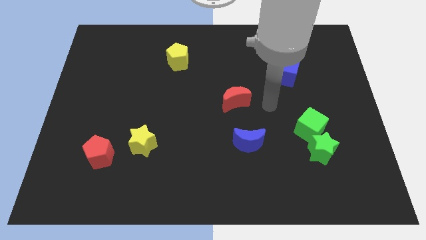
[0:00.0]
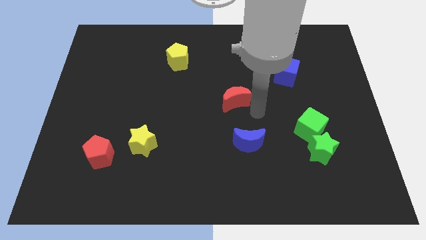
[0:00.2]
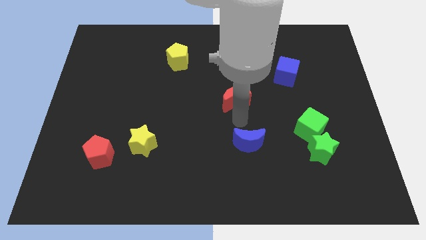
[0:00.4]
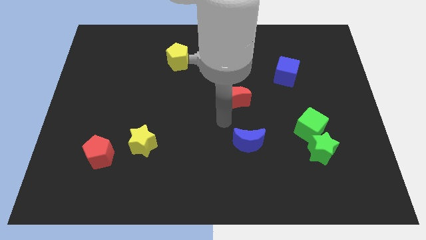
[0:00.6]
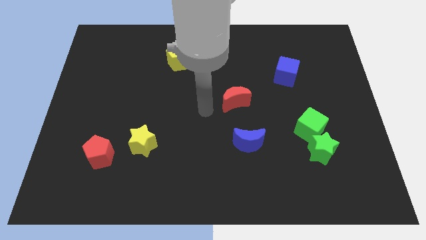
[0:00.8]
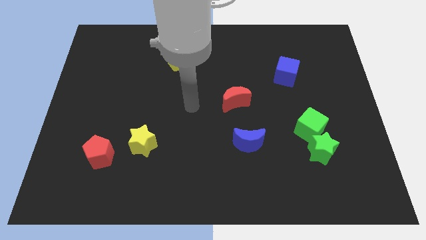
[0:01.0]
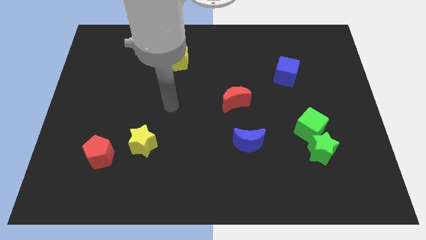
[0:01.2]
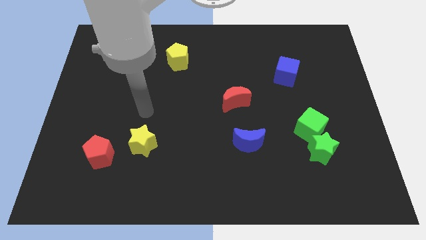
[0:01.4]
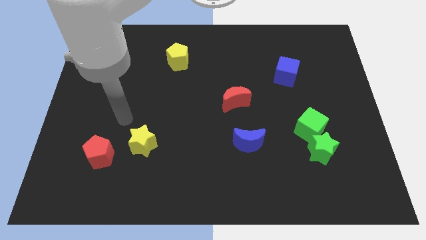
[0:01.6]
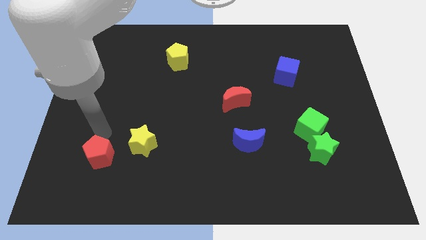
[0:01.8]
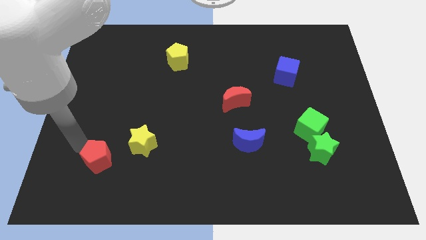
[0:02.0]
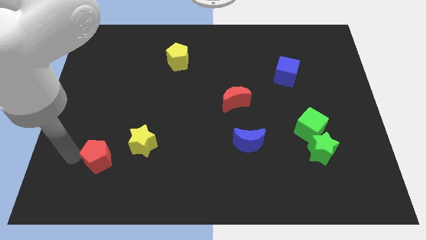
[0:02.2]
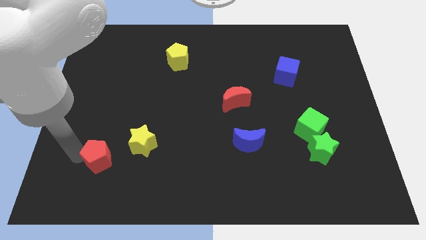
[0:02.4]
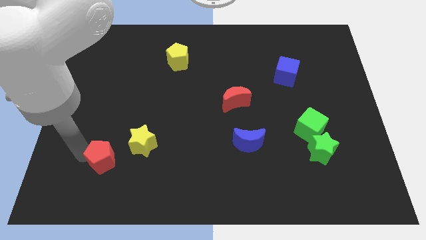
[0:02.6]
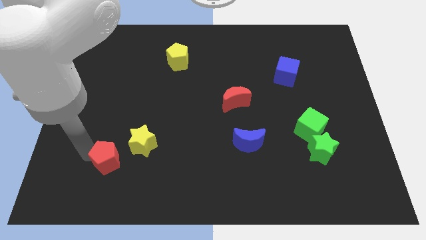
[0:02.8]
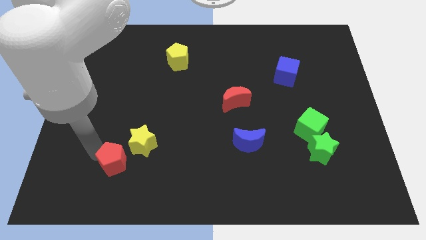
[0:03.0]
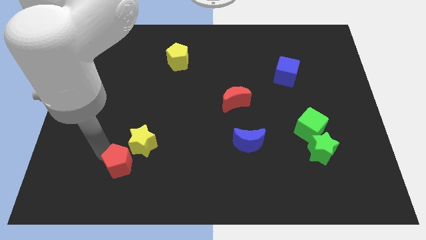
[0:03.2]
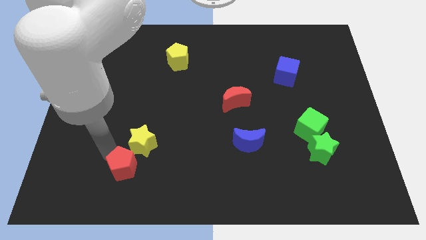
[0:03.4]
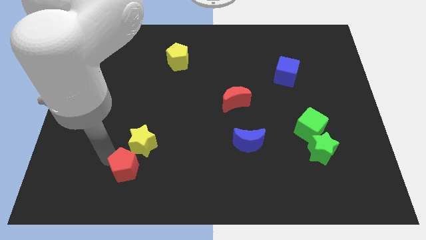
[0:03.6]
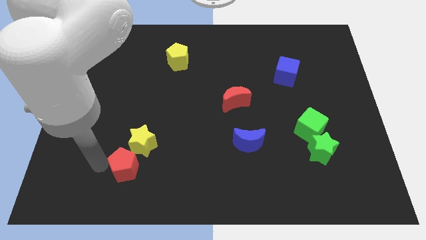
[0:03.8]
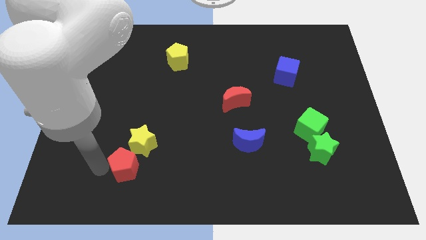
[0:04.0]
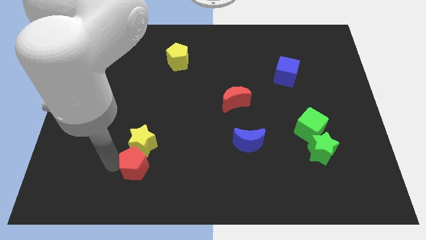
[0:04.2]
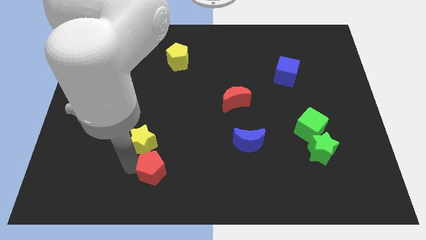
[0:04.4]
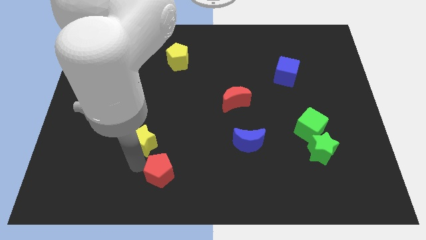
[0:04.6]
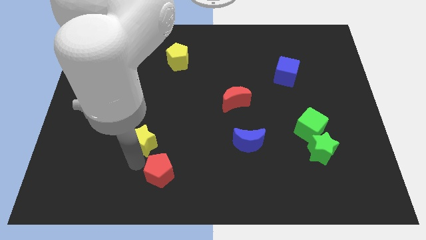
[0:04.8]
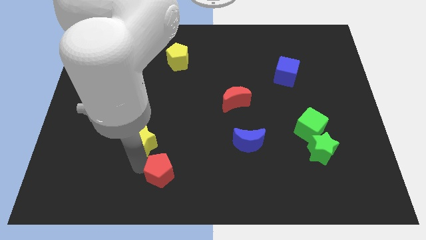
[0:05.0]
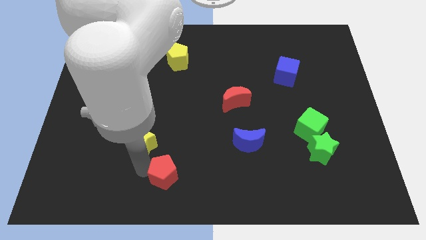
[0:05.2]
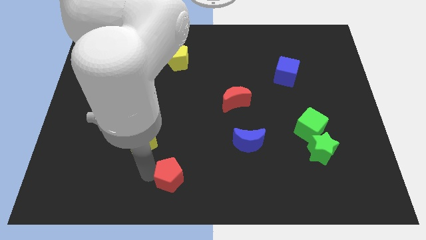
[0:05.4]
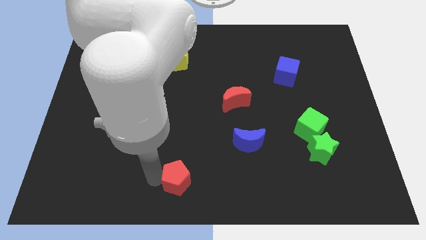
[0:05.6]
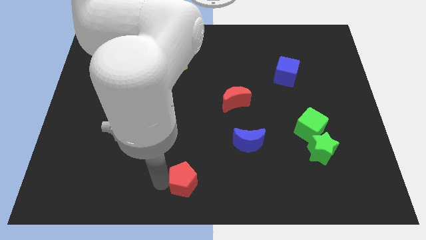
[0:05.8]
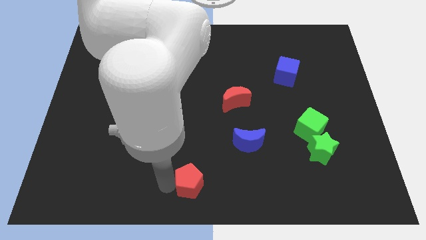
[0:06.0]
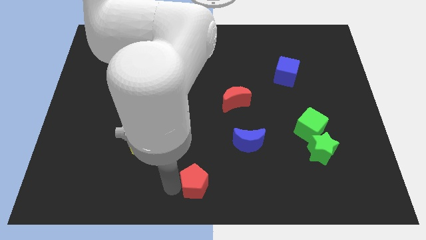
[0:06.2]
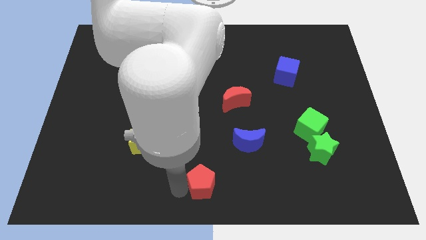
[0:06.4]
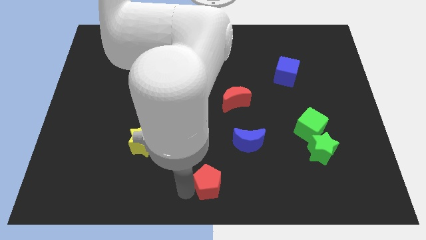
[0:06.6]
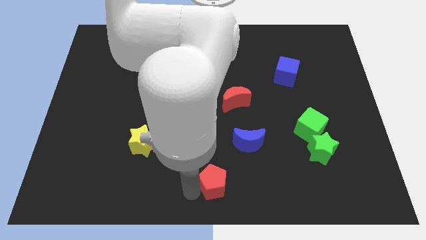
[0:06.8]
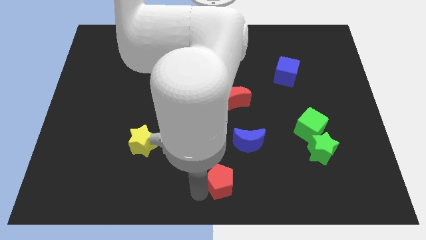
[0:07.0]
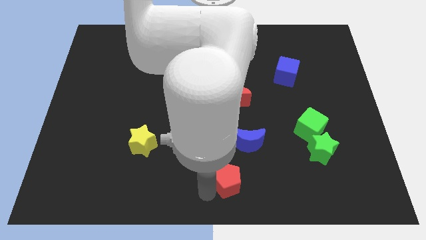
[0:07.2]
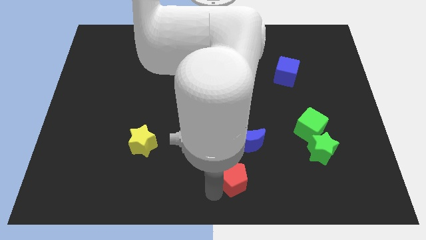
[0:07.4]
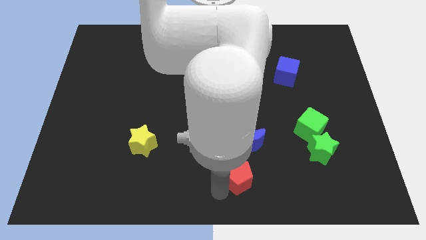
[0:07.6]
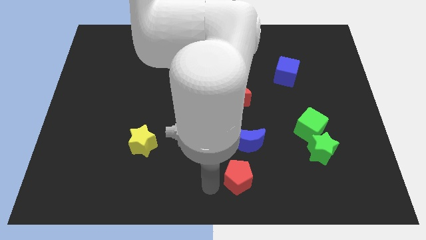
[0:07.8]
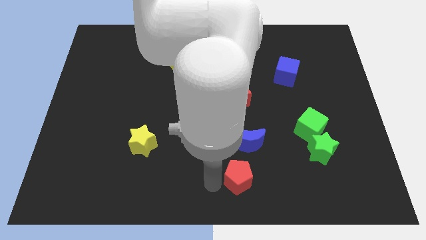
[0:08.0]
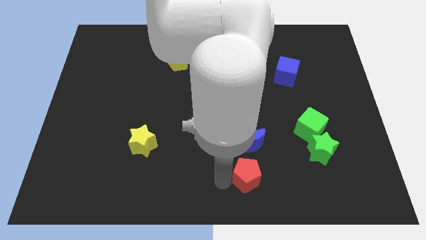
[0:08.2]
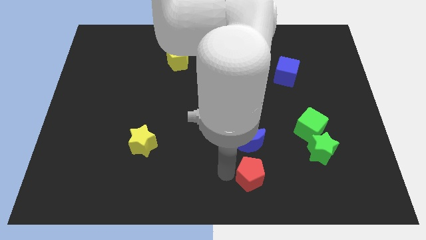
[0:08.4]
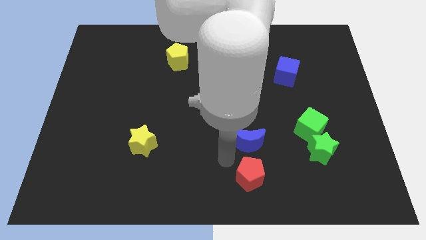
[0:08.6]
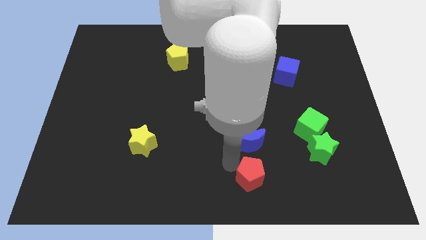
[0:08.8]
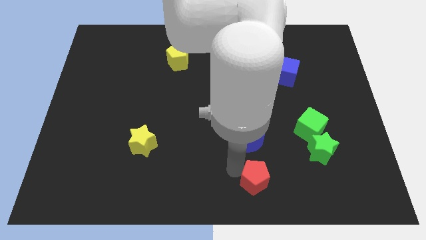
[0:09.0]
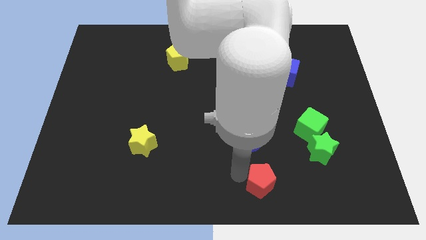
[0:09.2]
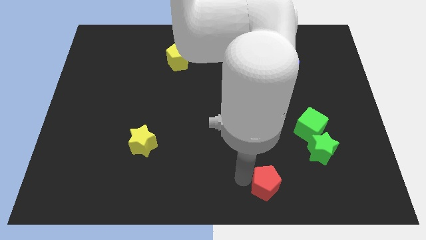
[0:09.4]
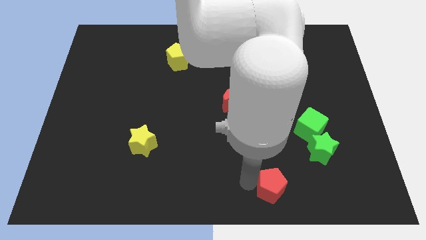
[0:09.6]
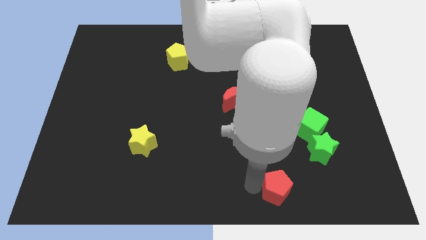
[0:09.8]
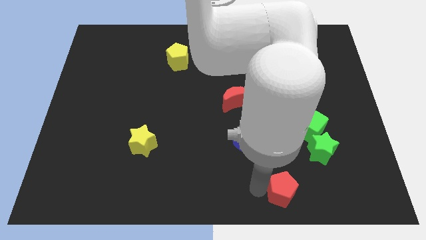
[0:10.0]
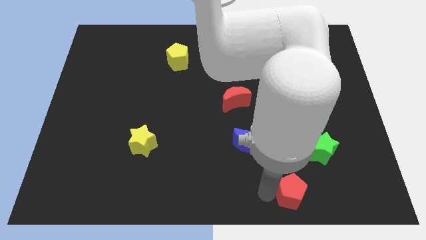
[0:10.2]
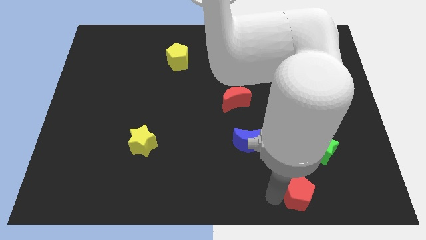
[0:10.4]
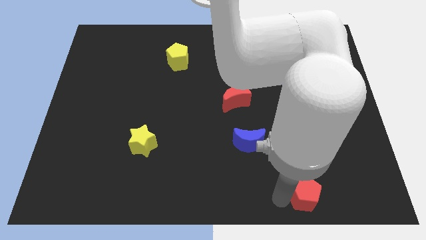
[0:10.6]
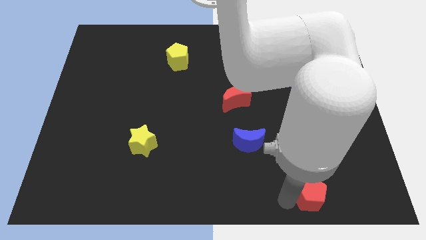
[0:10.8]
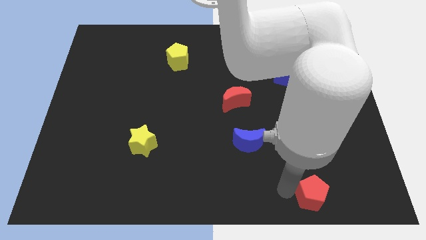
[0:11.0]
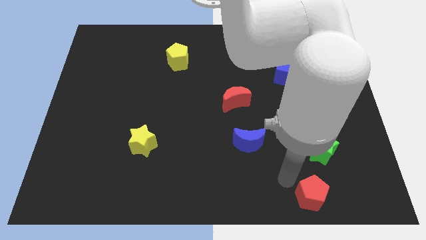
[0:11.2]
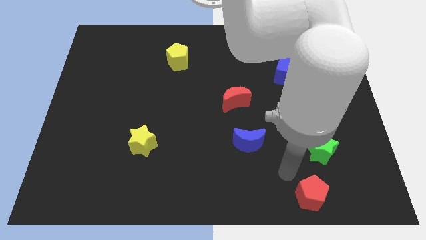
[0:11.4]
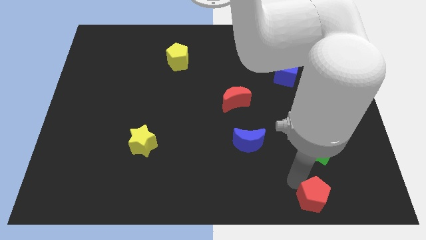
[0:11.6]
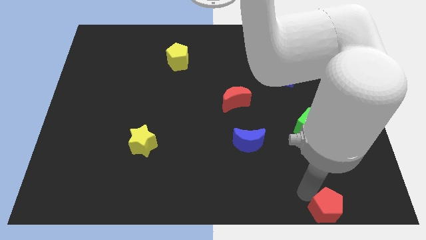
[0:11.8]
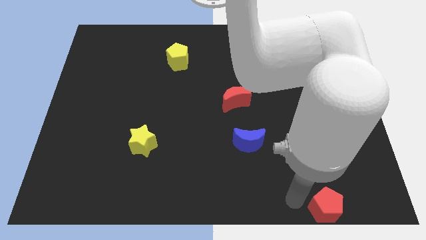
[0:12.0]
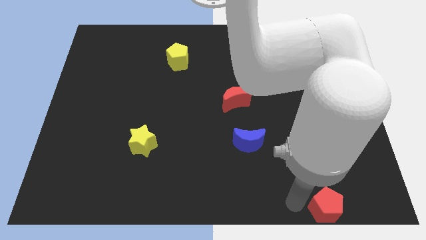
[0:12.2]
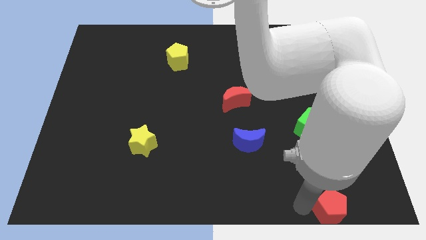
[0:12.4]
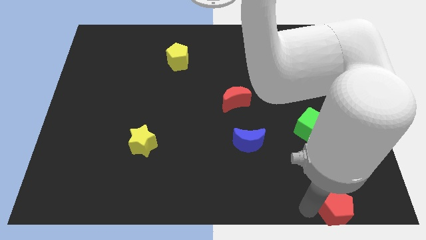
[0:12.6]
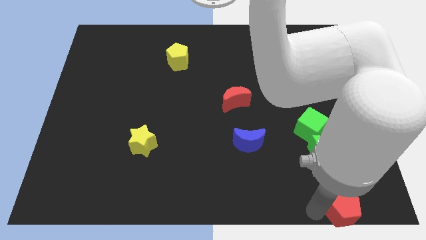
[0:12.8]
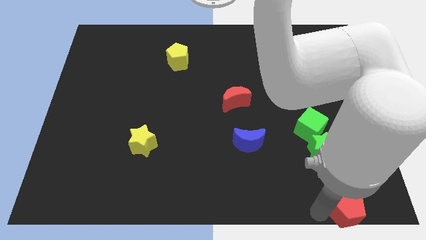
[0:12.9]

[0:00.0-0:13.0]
push the red pentagon to the lower right corner
